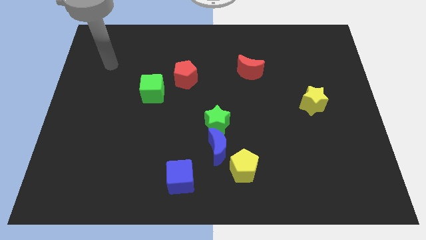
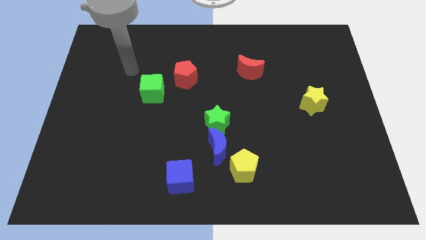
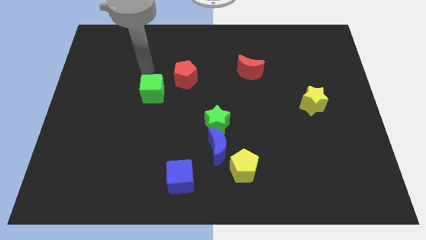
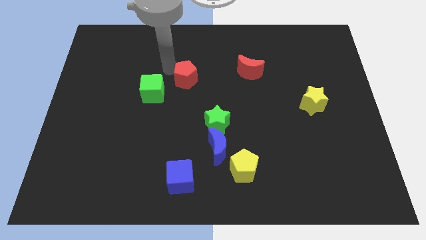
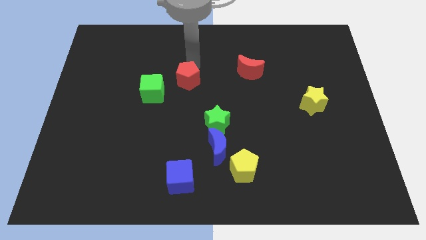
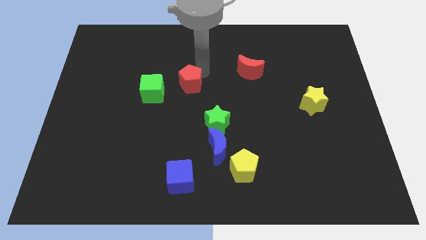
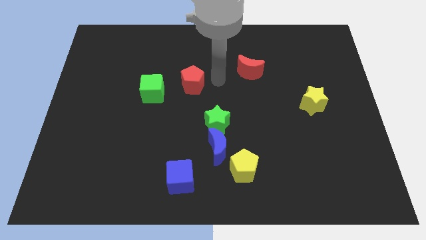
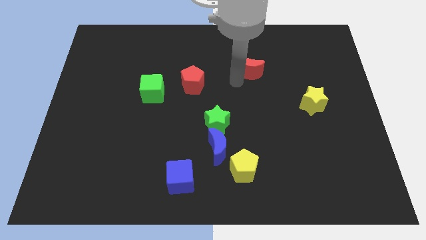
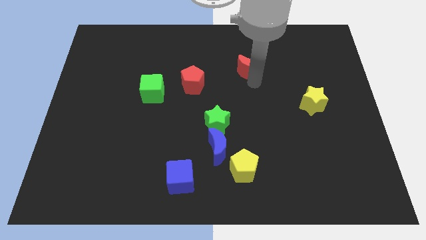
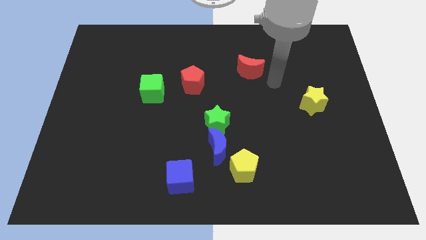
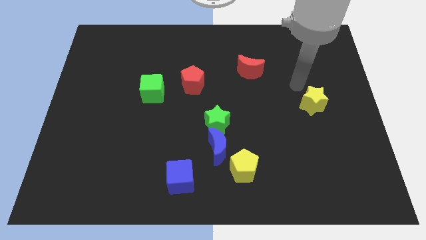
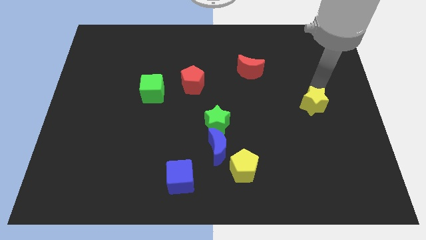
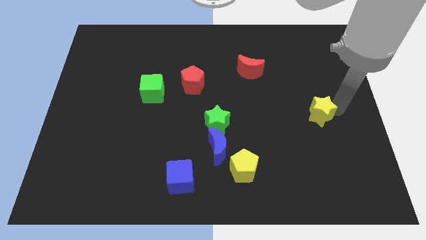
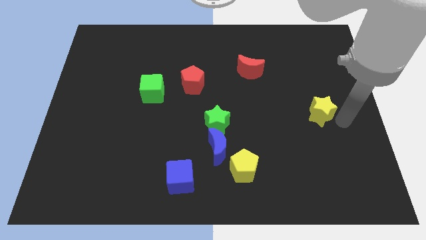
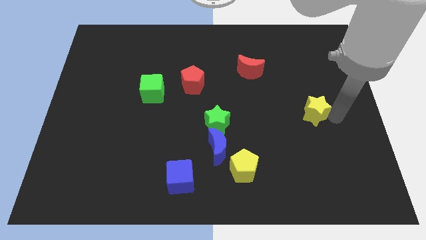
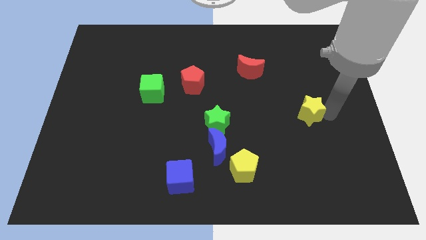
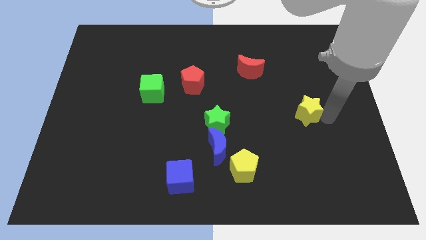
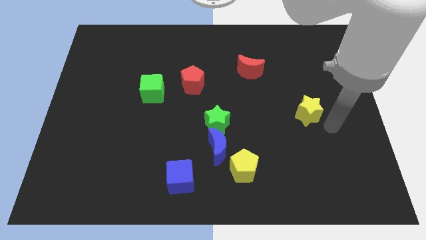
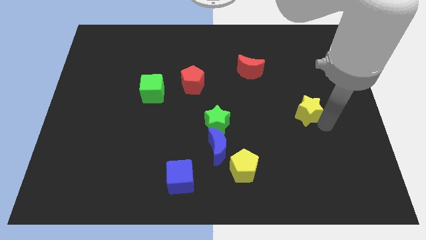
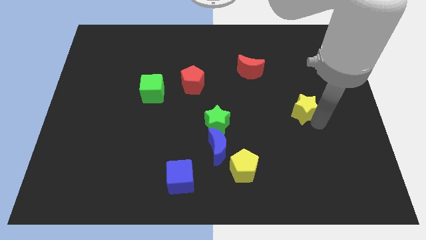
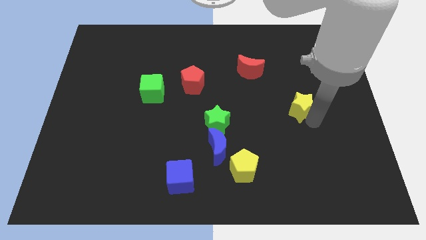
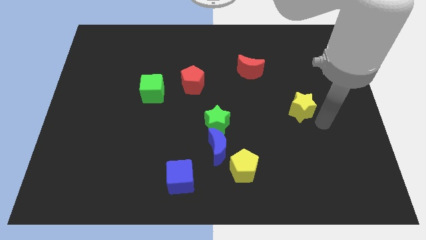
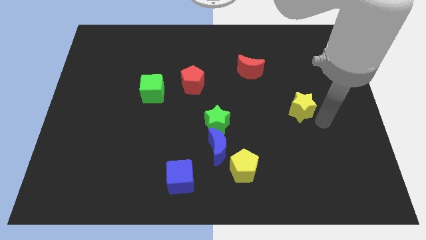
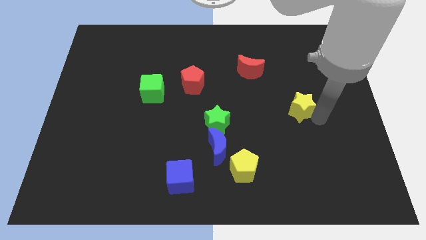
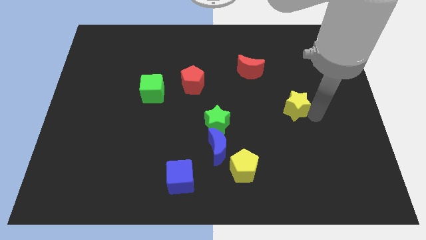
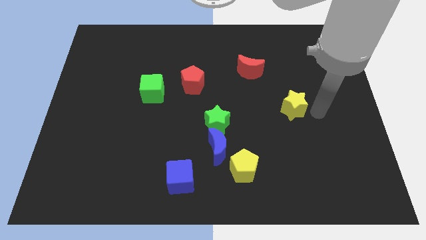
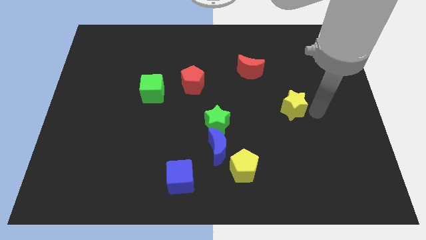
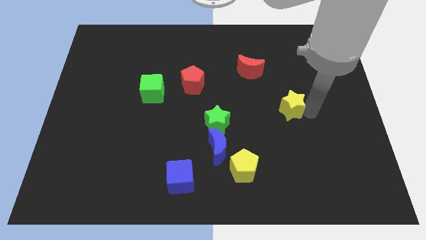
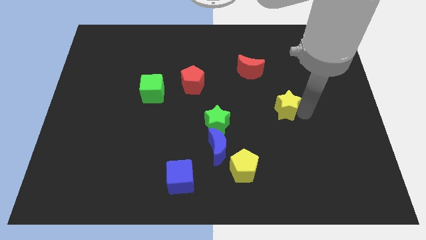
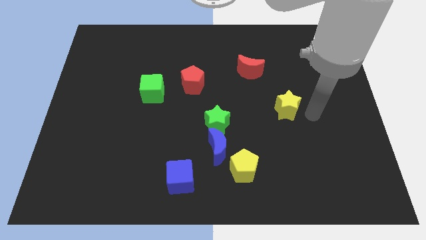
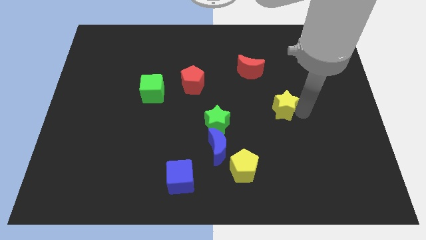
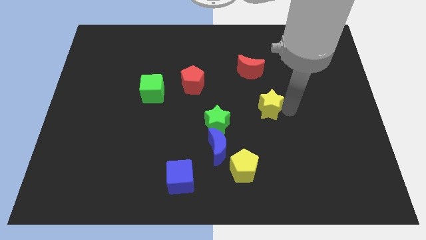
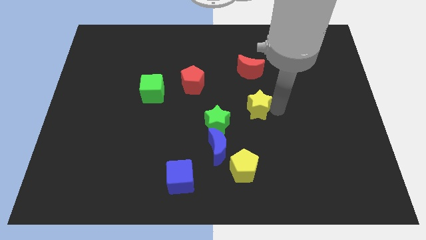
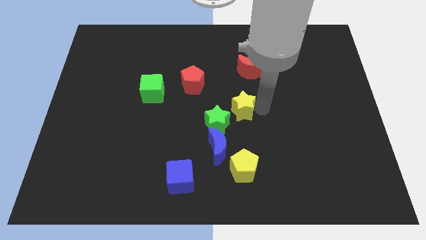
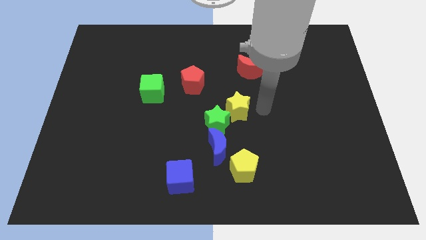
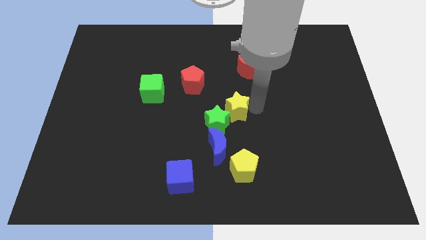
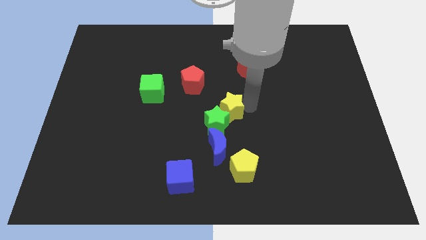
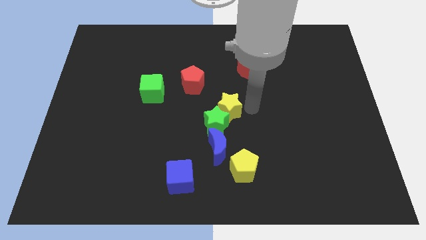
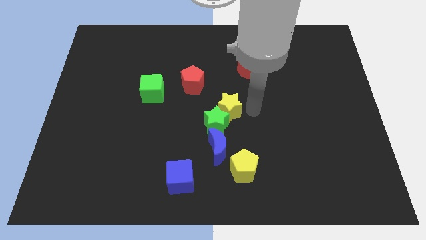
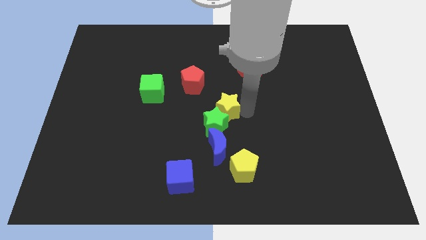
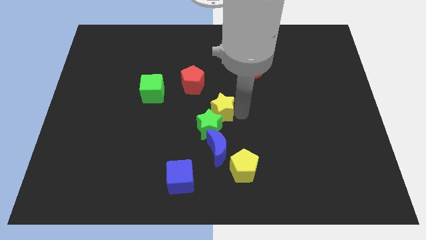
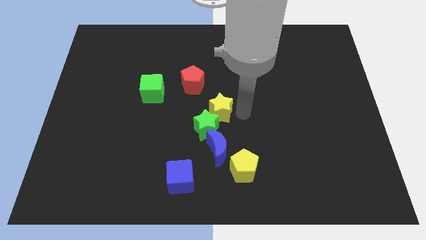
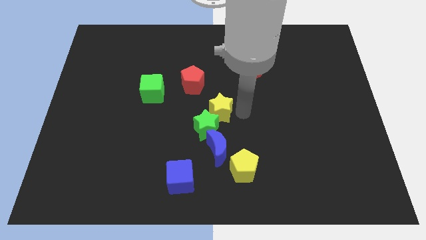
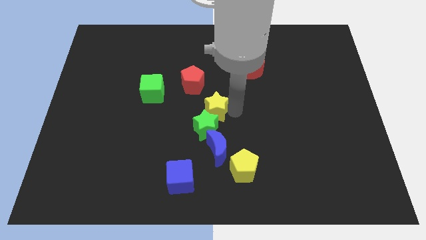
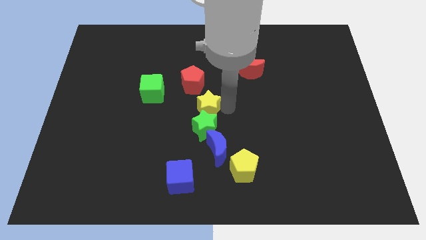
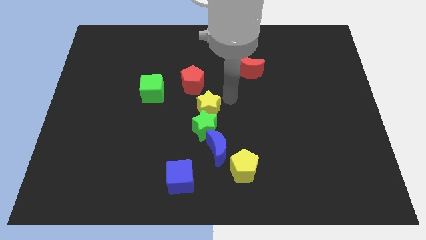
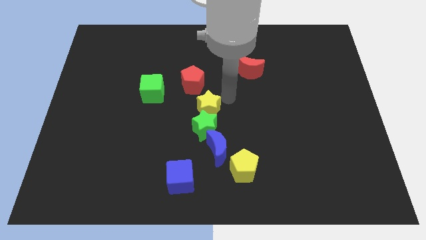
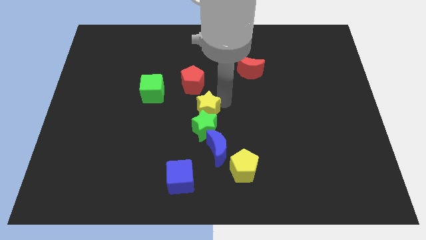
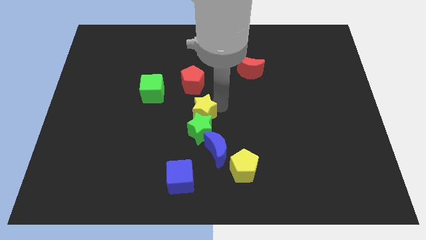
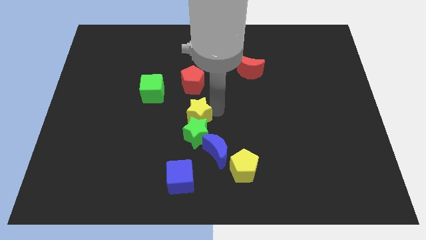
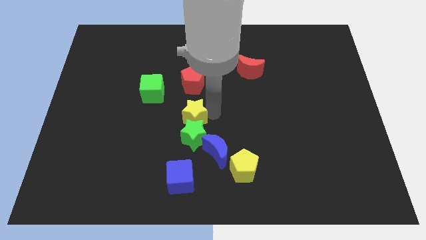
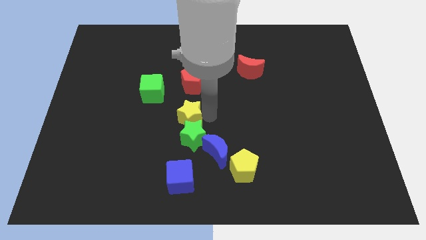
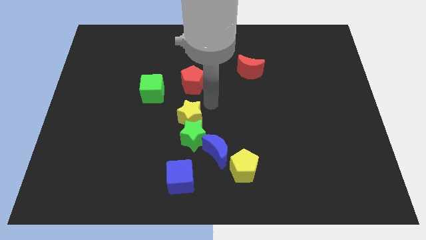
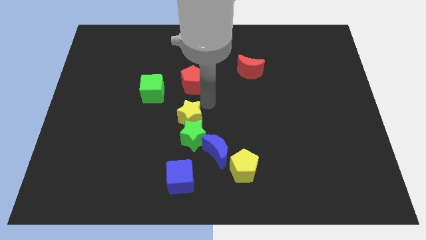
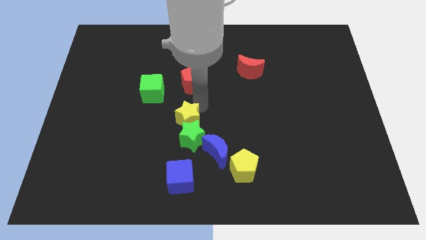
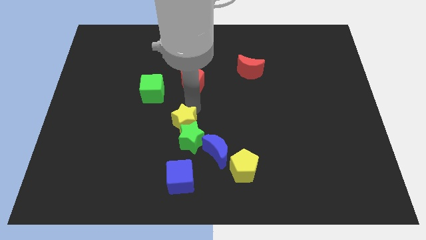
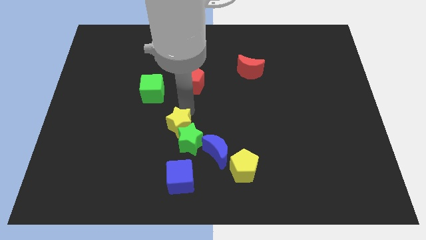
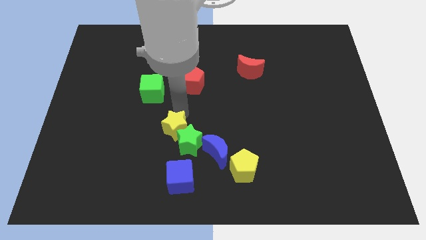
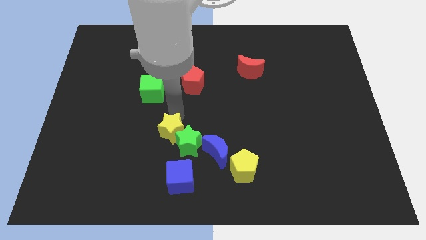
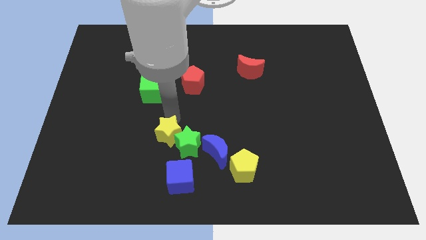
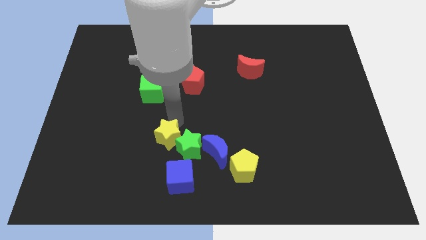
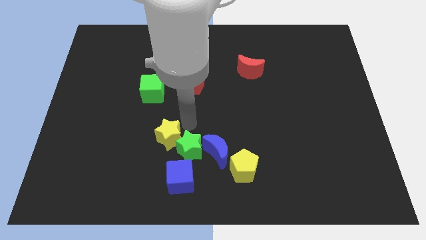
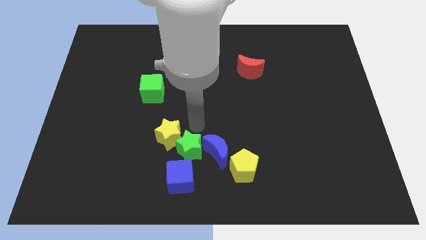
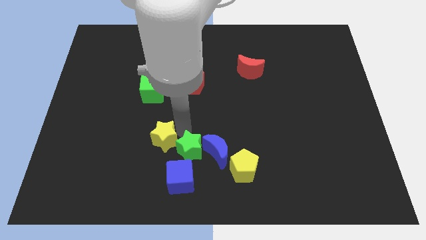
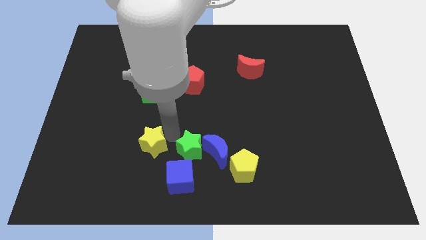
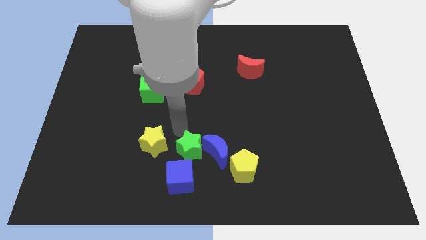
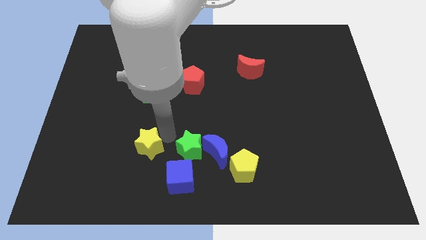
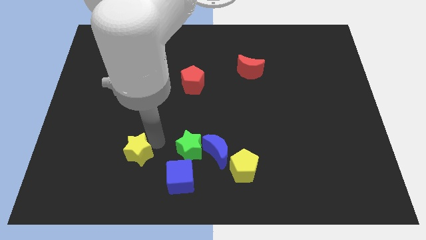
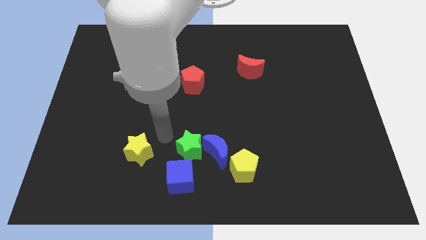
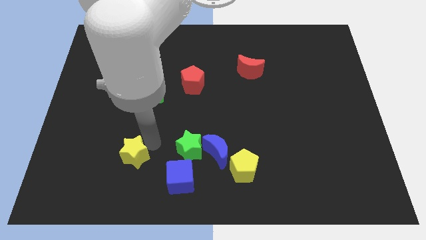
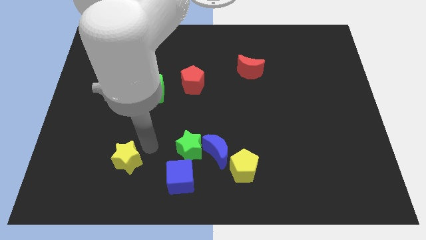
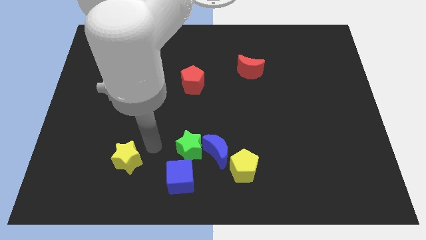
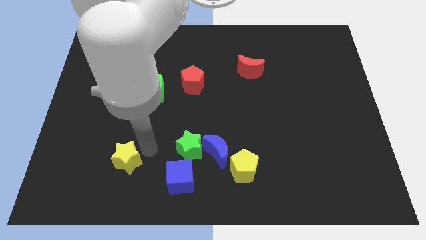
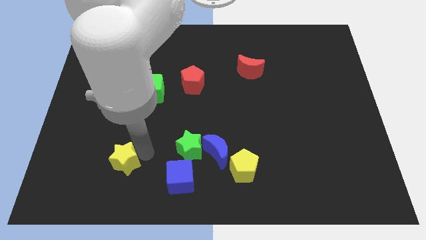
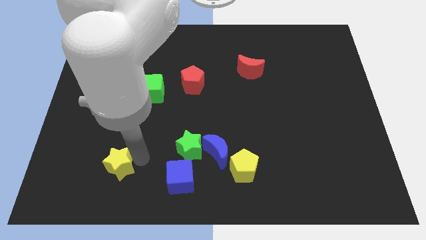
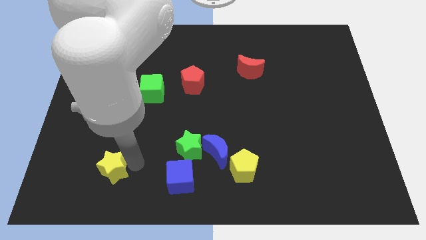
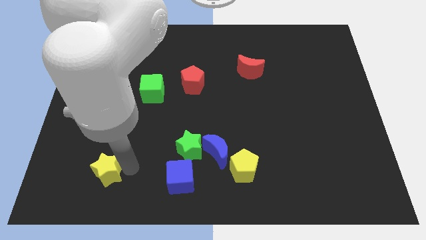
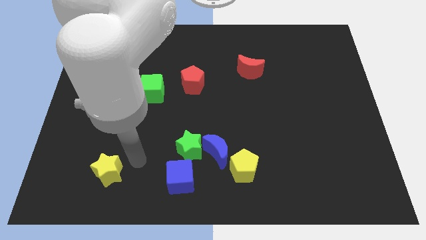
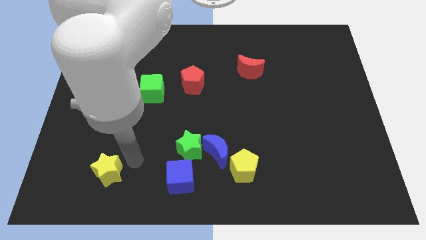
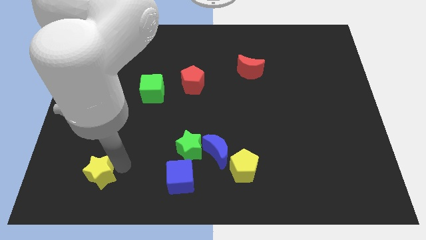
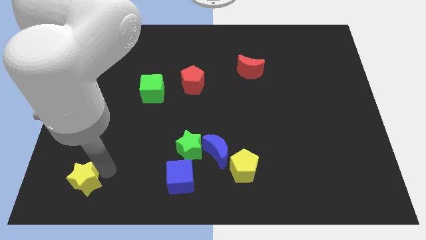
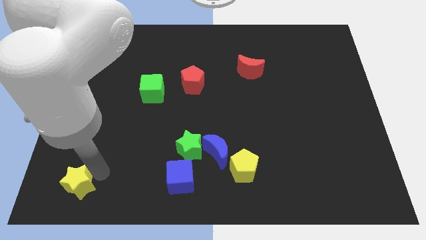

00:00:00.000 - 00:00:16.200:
move the yellow star to the bottom left
